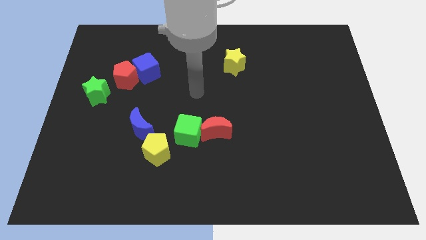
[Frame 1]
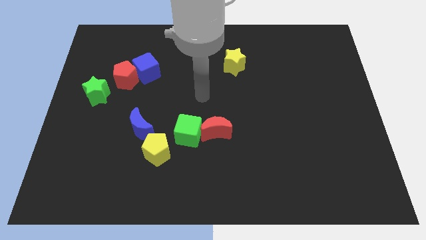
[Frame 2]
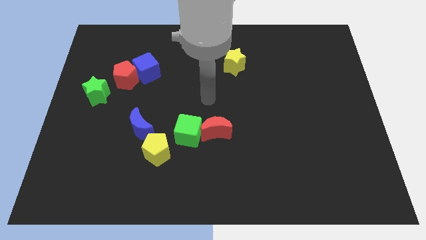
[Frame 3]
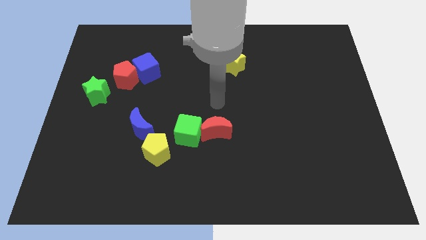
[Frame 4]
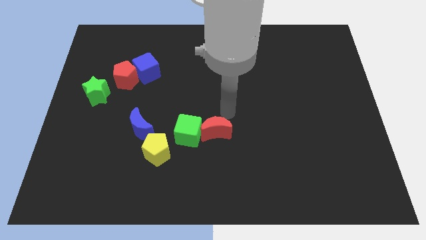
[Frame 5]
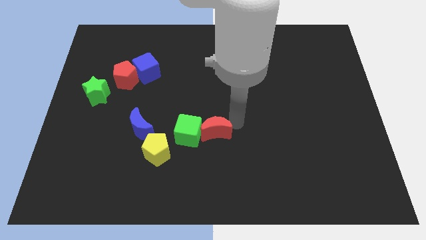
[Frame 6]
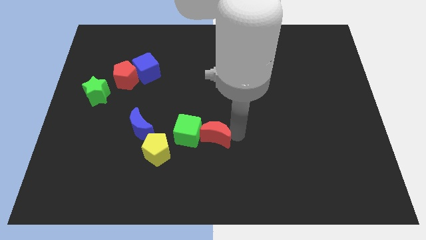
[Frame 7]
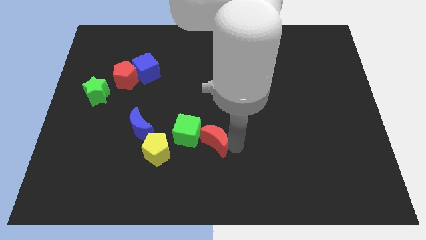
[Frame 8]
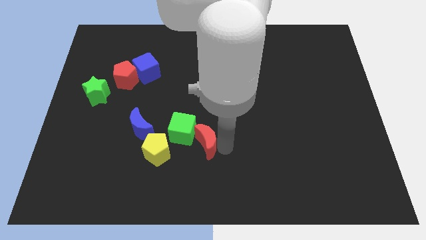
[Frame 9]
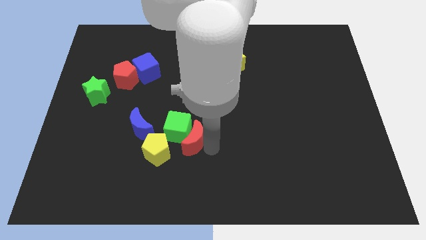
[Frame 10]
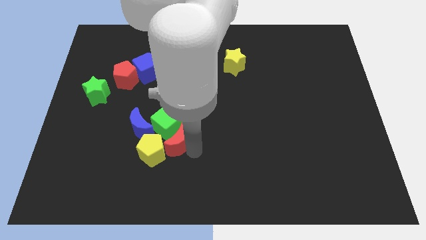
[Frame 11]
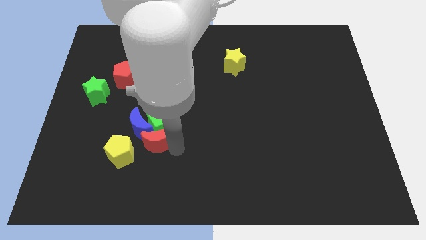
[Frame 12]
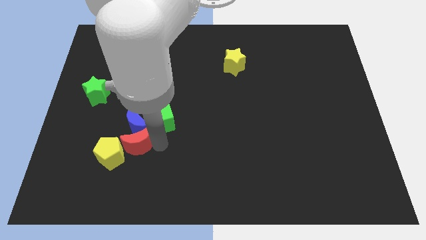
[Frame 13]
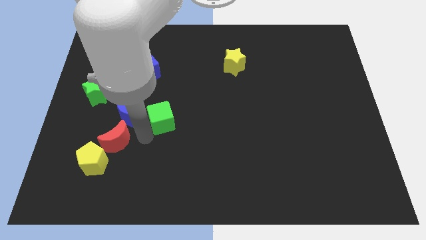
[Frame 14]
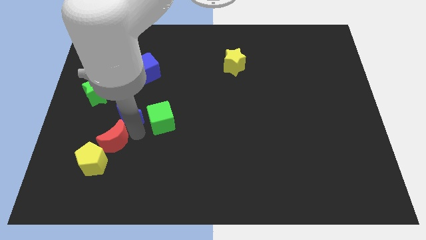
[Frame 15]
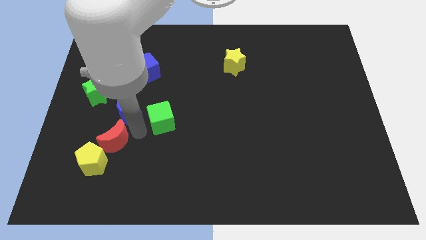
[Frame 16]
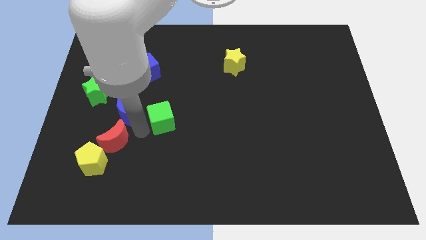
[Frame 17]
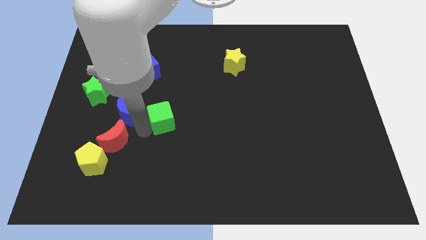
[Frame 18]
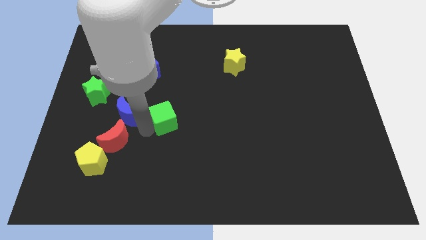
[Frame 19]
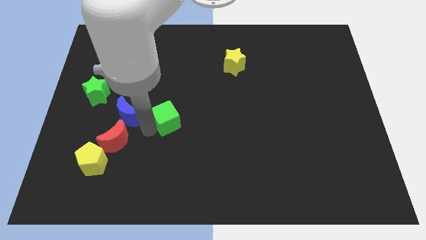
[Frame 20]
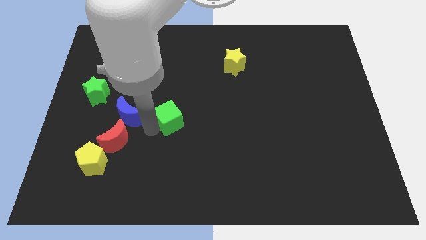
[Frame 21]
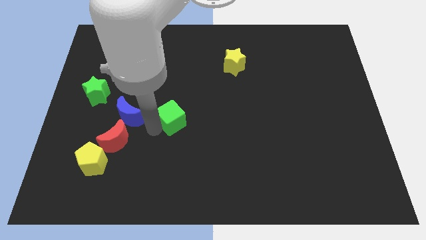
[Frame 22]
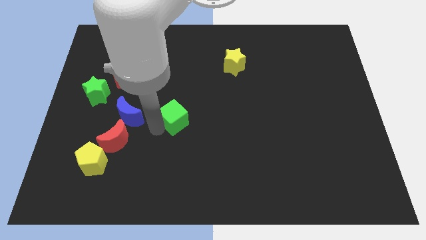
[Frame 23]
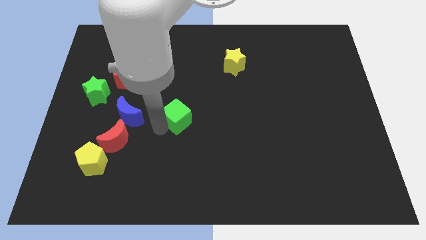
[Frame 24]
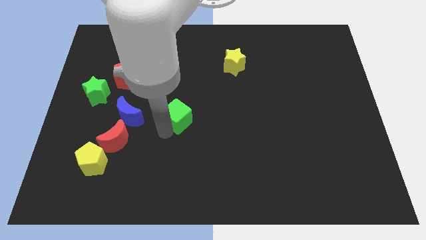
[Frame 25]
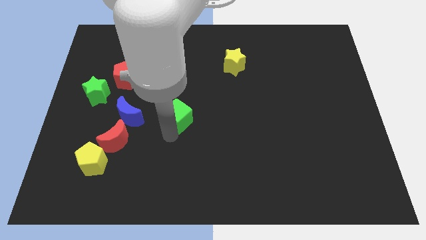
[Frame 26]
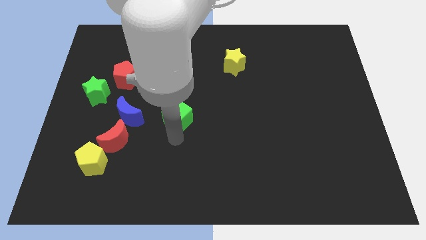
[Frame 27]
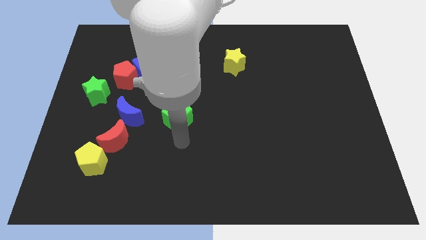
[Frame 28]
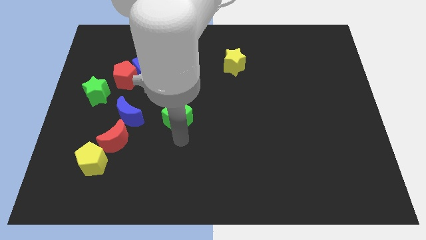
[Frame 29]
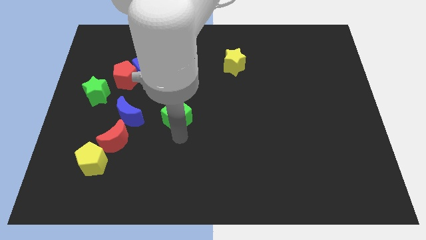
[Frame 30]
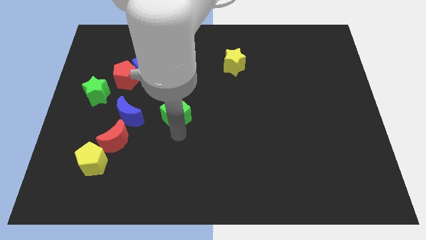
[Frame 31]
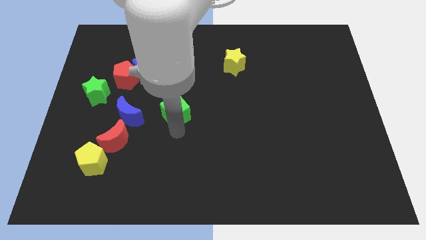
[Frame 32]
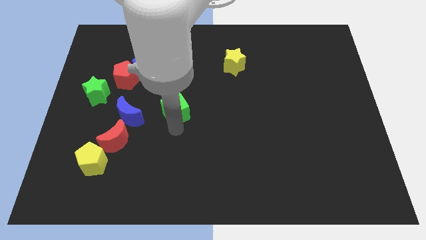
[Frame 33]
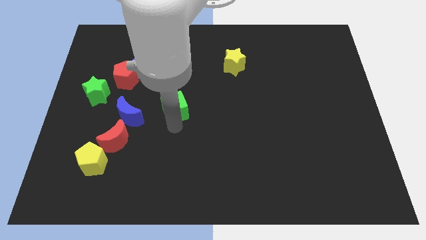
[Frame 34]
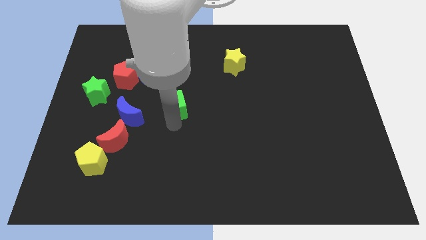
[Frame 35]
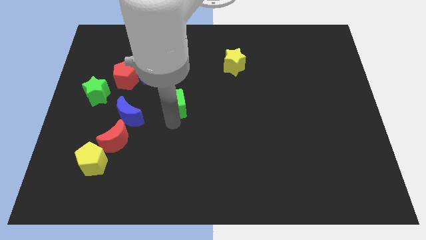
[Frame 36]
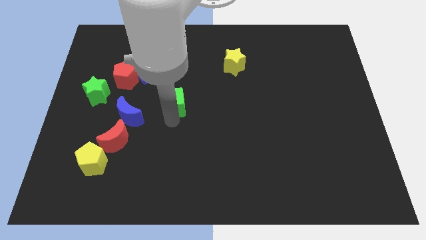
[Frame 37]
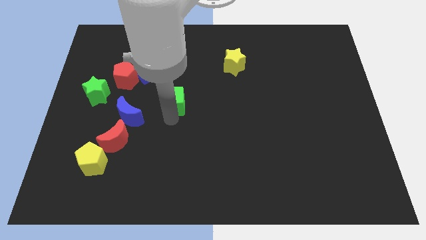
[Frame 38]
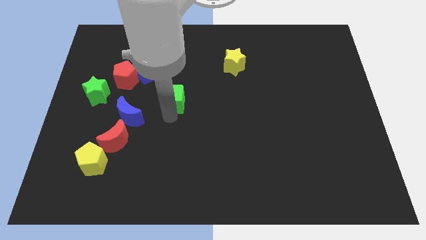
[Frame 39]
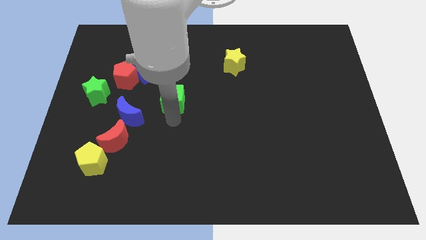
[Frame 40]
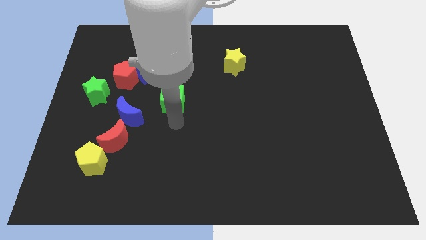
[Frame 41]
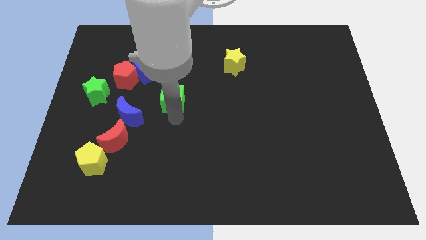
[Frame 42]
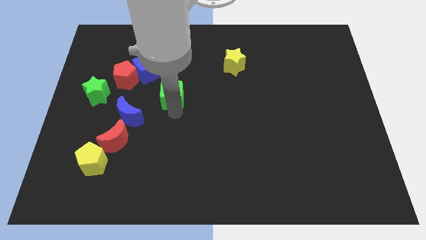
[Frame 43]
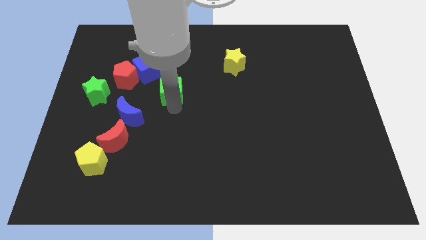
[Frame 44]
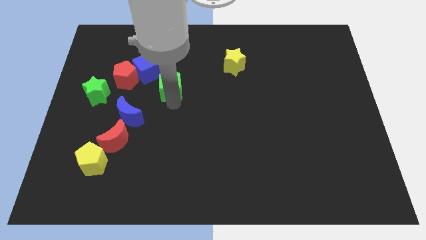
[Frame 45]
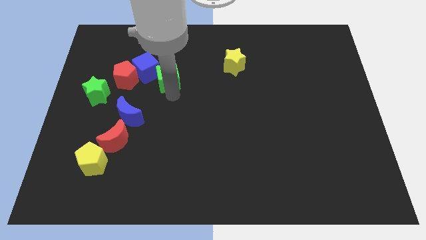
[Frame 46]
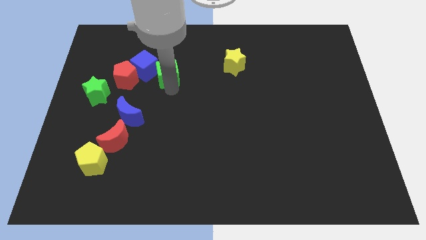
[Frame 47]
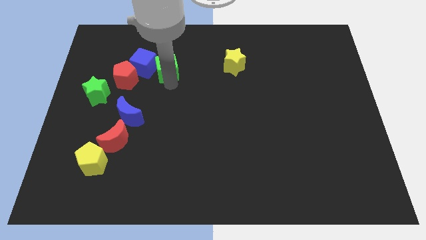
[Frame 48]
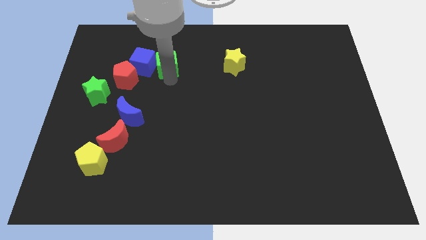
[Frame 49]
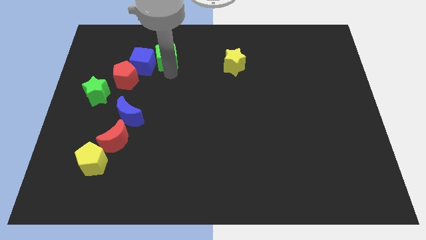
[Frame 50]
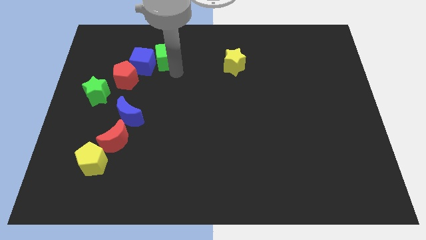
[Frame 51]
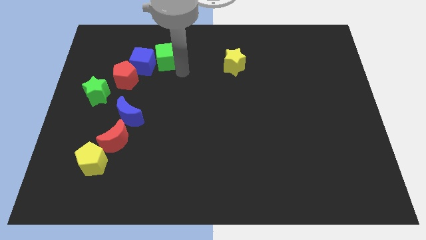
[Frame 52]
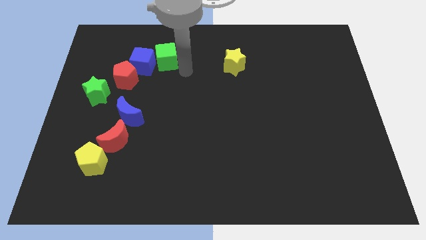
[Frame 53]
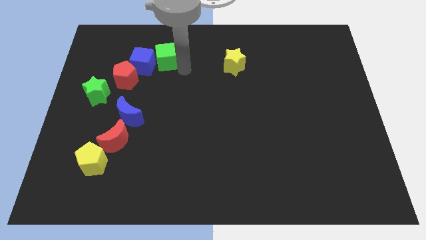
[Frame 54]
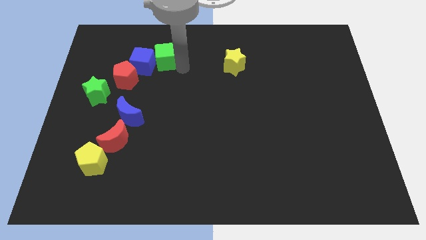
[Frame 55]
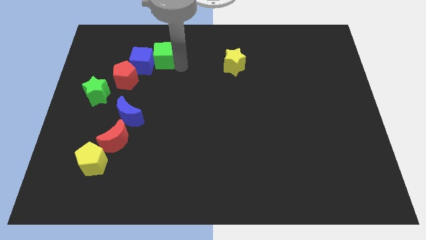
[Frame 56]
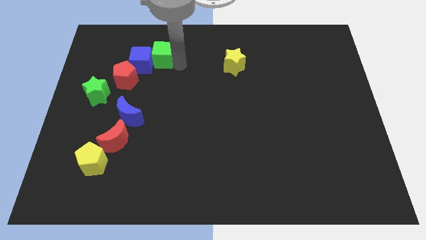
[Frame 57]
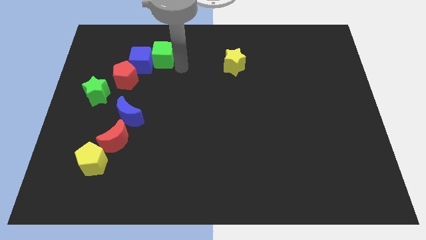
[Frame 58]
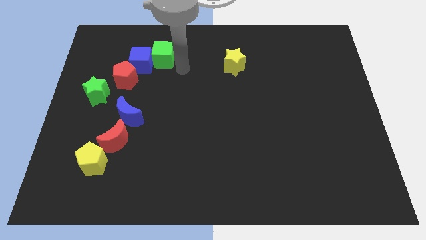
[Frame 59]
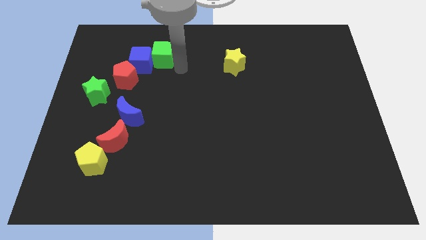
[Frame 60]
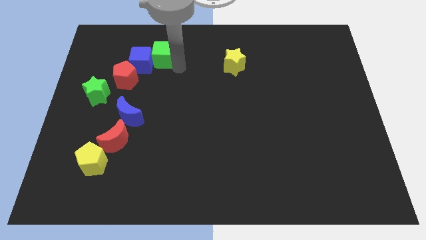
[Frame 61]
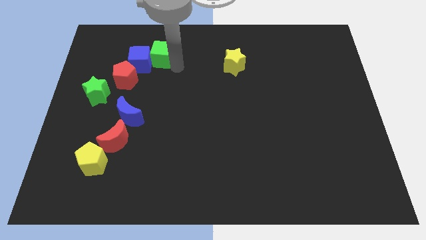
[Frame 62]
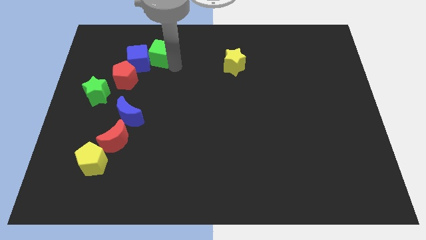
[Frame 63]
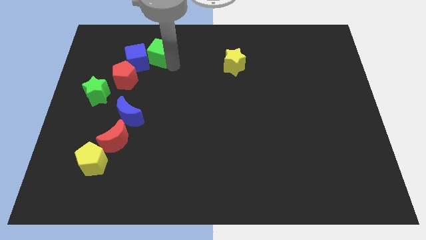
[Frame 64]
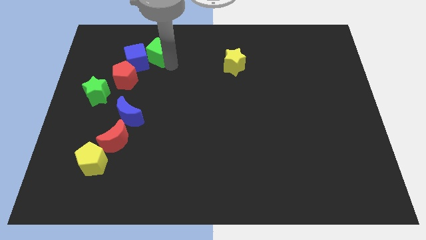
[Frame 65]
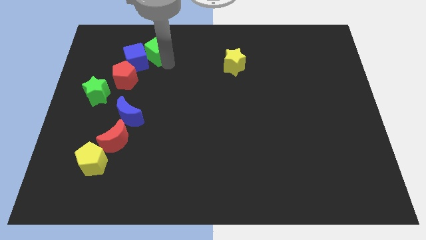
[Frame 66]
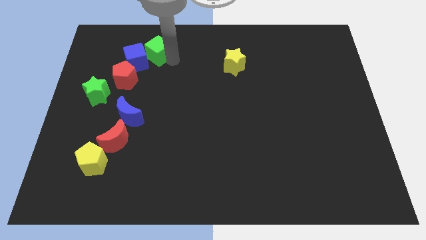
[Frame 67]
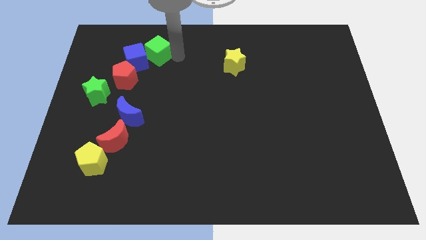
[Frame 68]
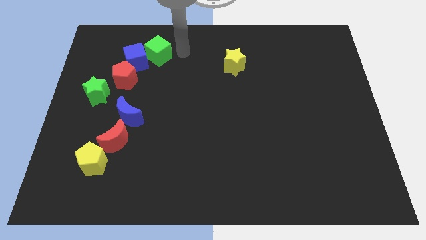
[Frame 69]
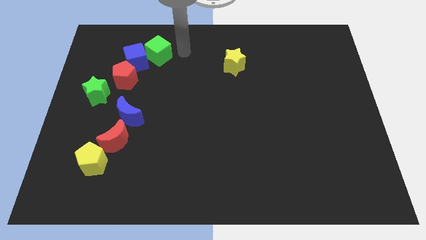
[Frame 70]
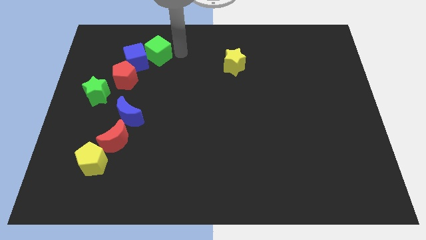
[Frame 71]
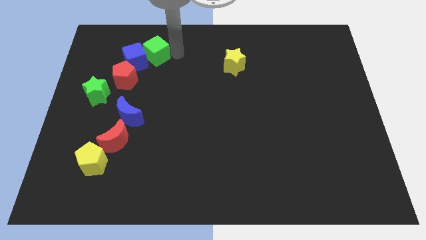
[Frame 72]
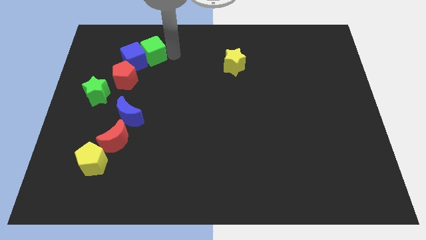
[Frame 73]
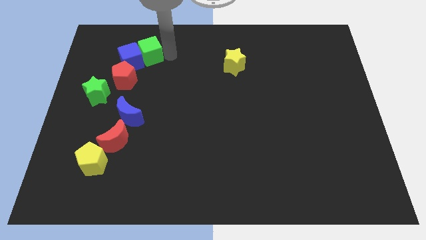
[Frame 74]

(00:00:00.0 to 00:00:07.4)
slide the green cube upwards and left

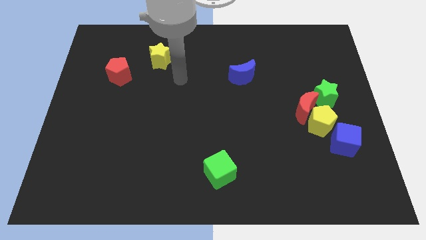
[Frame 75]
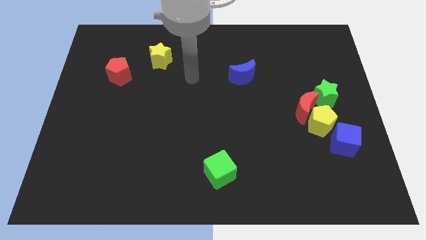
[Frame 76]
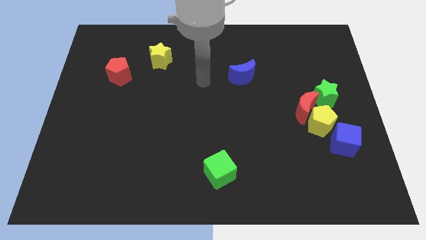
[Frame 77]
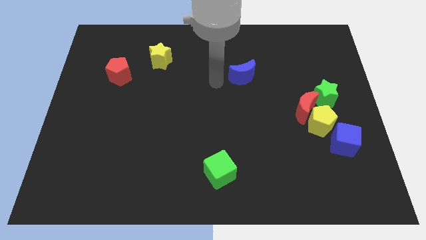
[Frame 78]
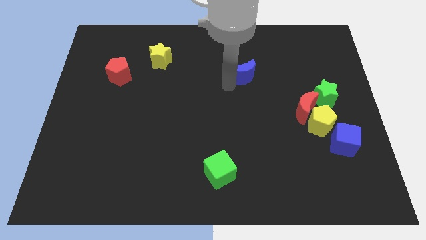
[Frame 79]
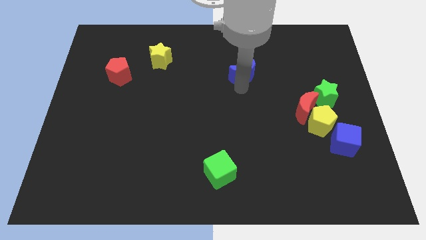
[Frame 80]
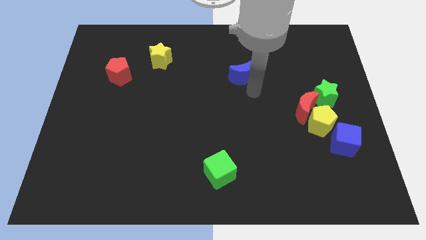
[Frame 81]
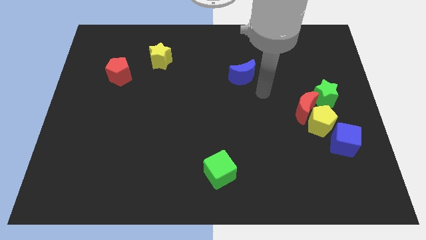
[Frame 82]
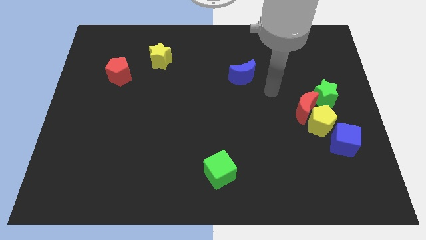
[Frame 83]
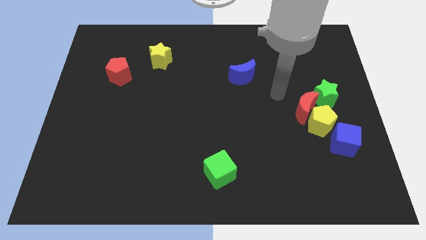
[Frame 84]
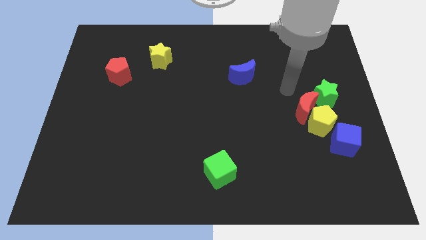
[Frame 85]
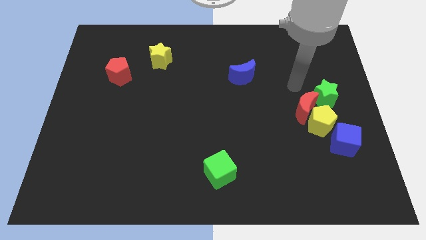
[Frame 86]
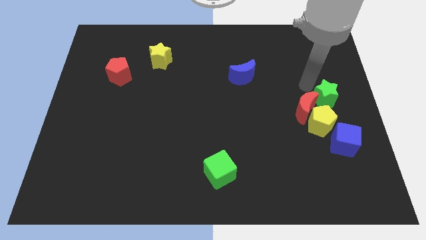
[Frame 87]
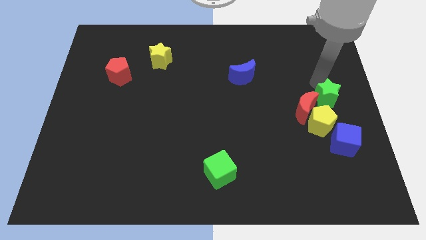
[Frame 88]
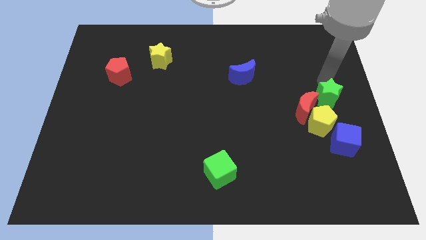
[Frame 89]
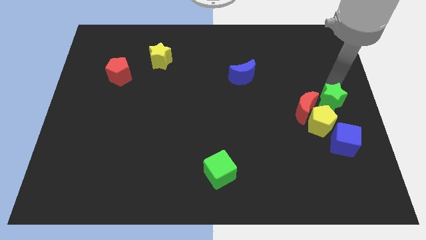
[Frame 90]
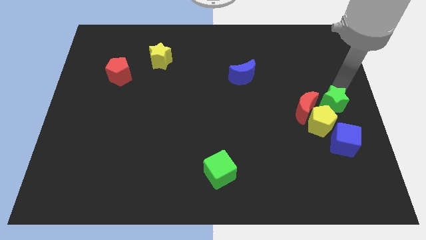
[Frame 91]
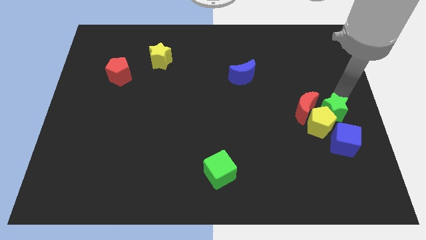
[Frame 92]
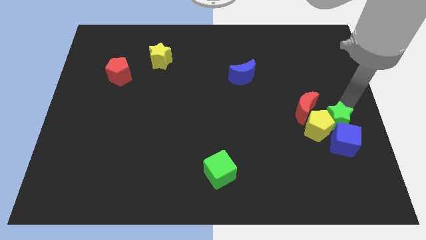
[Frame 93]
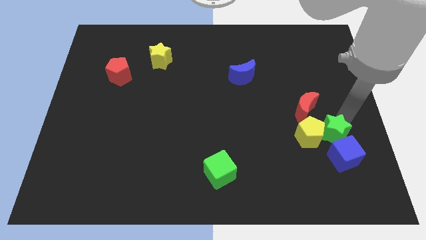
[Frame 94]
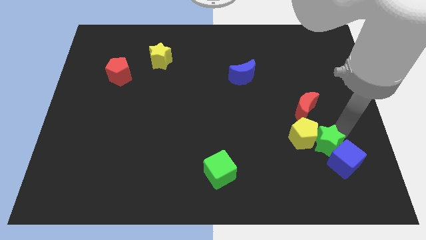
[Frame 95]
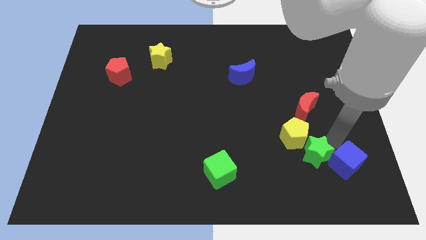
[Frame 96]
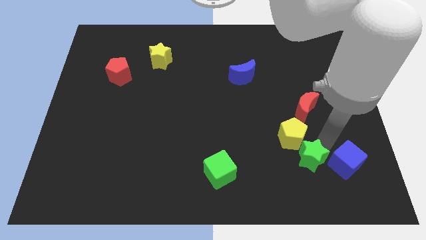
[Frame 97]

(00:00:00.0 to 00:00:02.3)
slightly push the yellow pentagon left
